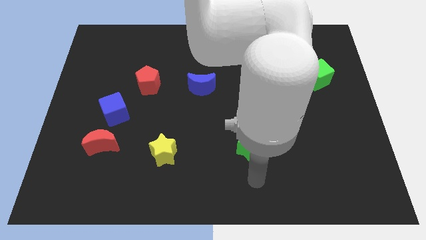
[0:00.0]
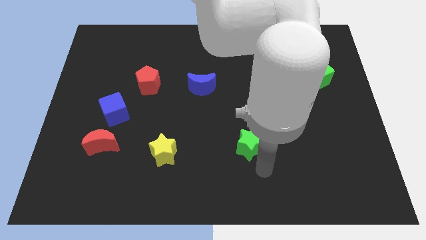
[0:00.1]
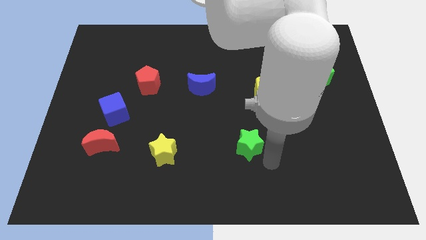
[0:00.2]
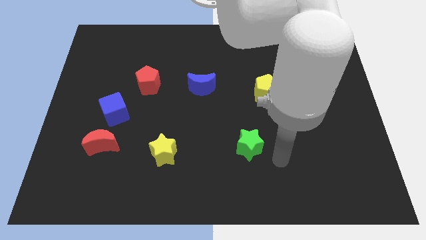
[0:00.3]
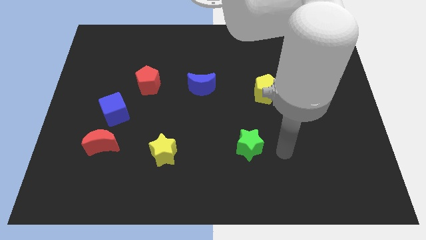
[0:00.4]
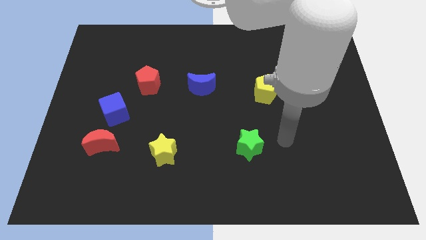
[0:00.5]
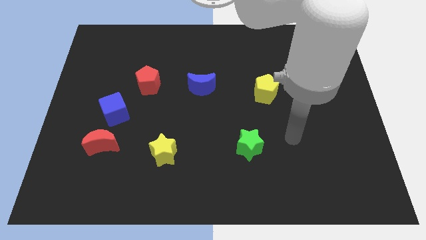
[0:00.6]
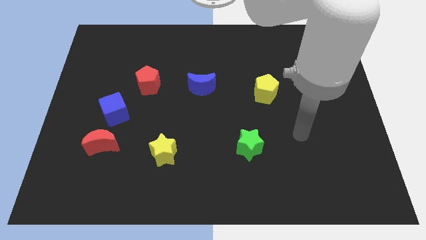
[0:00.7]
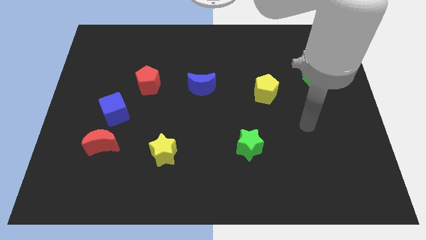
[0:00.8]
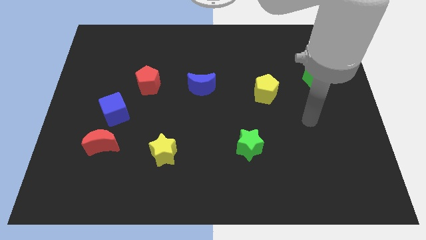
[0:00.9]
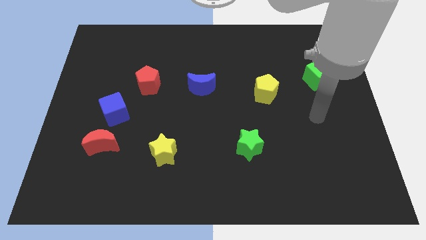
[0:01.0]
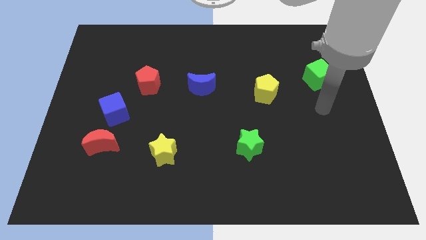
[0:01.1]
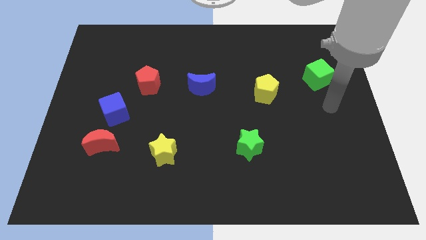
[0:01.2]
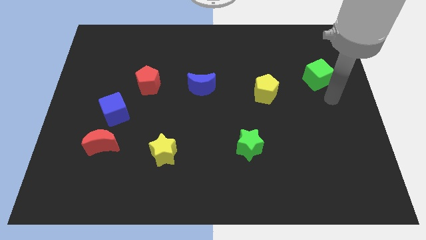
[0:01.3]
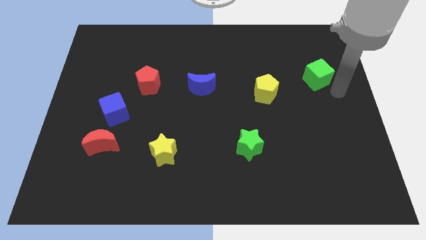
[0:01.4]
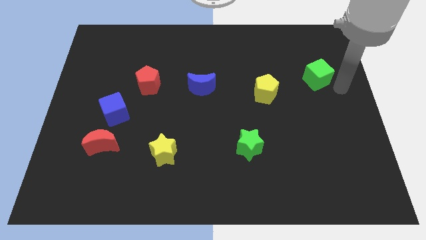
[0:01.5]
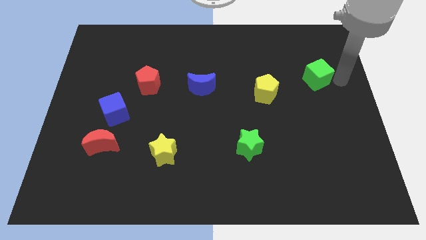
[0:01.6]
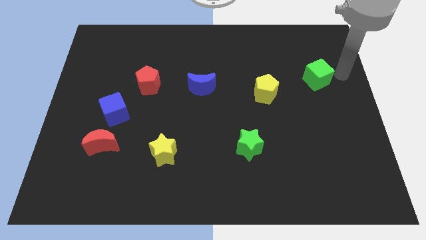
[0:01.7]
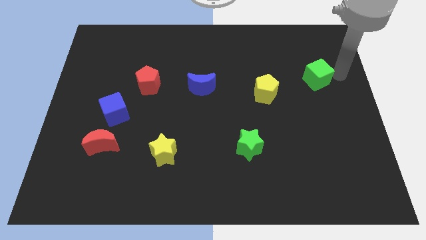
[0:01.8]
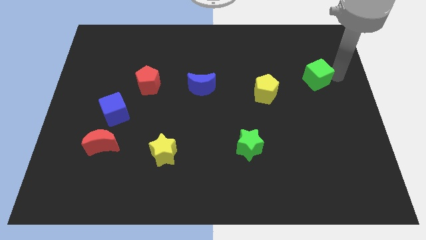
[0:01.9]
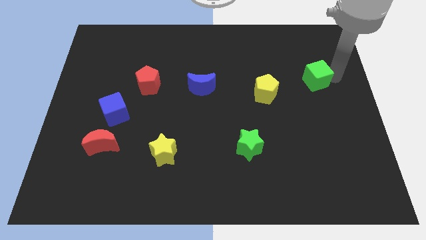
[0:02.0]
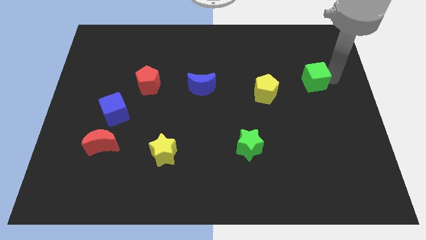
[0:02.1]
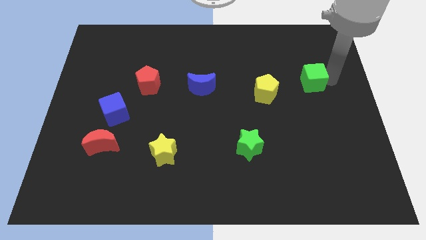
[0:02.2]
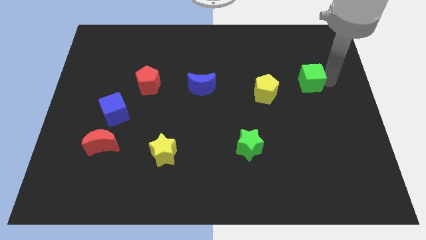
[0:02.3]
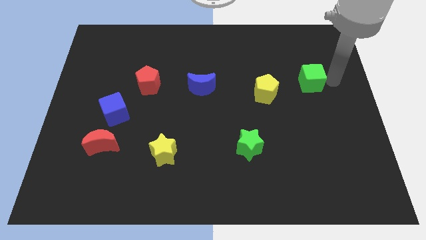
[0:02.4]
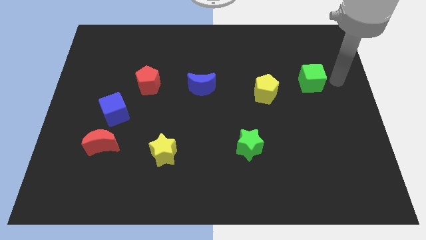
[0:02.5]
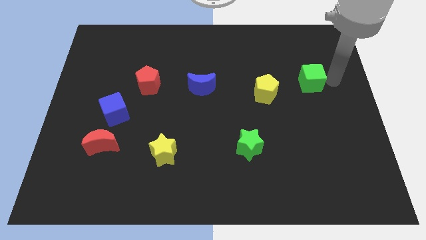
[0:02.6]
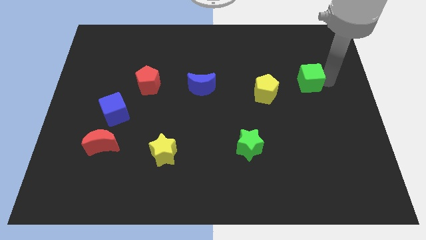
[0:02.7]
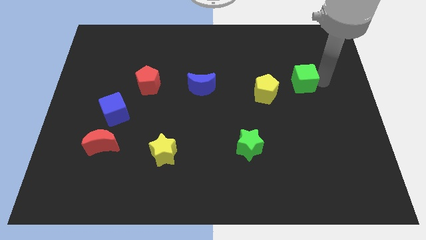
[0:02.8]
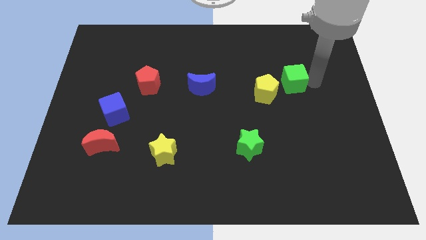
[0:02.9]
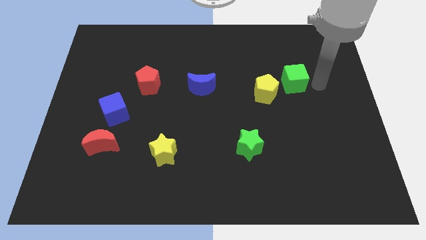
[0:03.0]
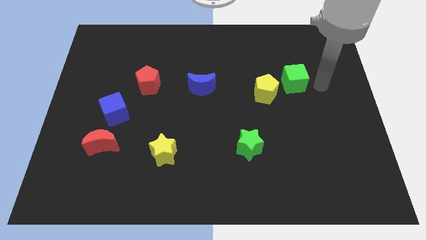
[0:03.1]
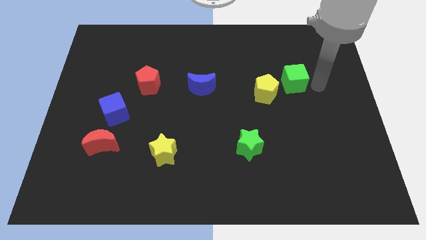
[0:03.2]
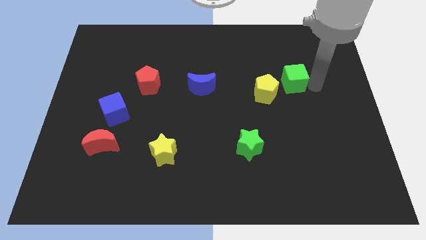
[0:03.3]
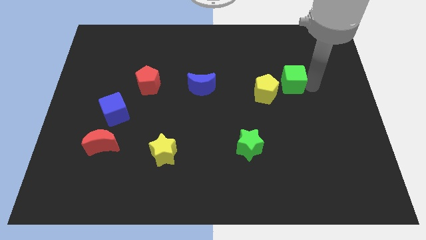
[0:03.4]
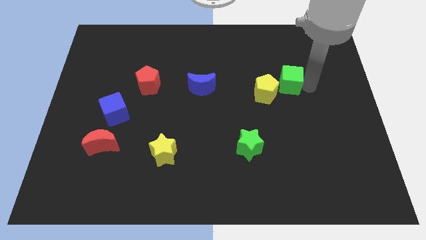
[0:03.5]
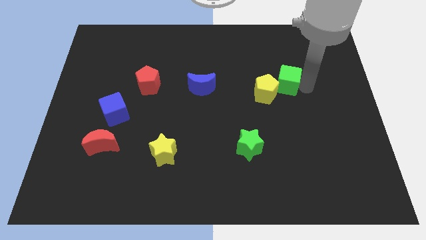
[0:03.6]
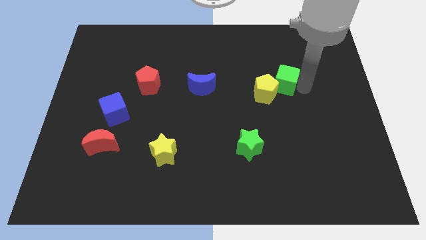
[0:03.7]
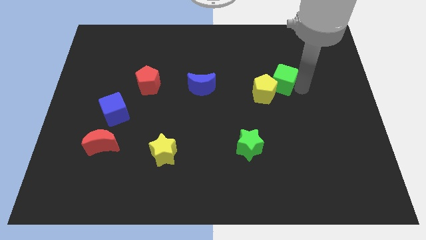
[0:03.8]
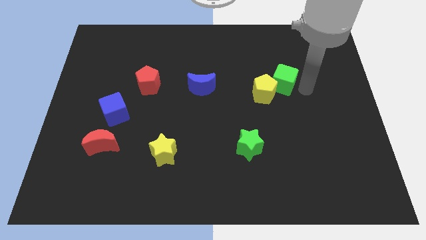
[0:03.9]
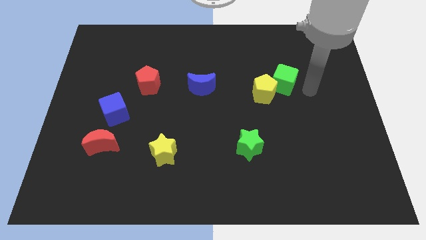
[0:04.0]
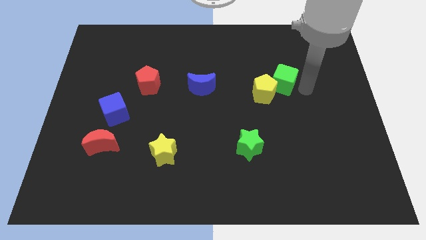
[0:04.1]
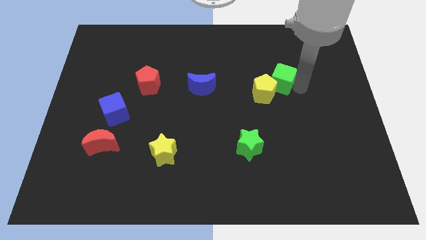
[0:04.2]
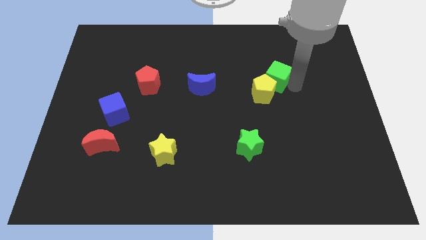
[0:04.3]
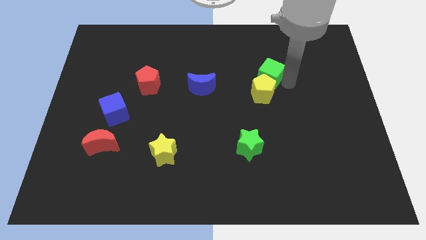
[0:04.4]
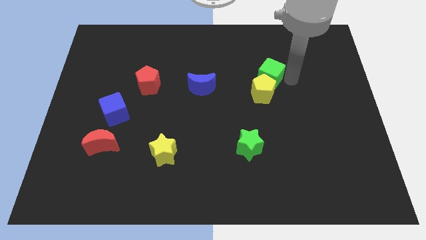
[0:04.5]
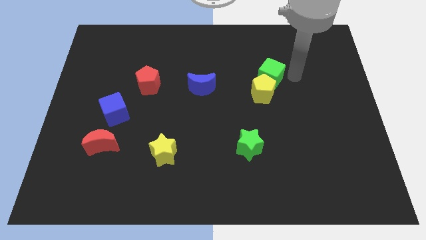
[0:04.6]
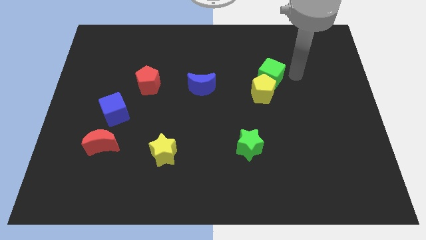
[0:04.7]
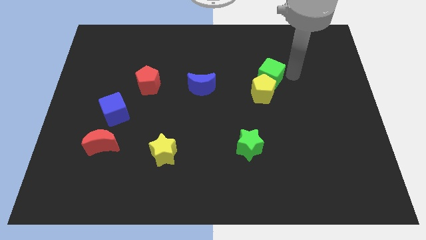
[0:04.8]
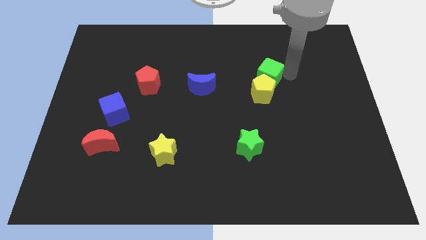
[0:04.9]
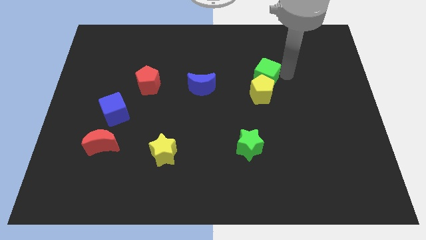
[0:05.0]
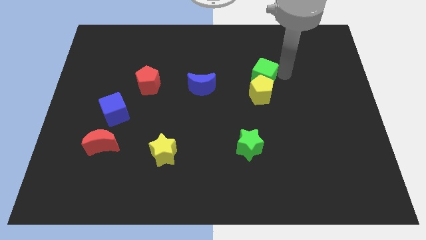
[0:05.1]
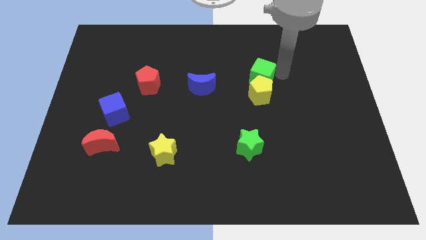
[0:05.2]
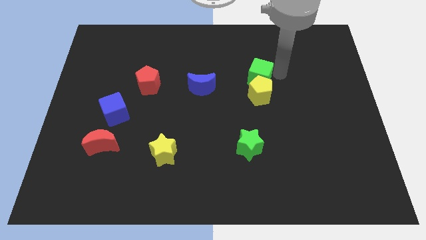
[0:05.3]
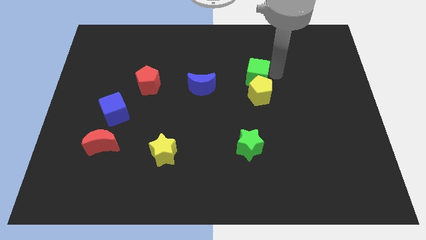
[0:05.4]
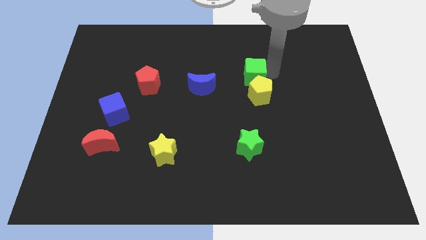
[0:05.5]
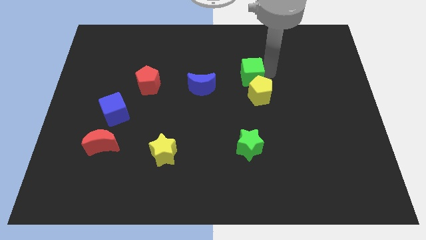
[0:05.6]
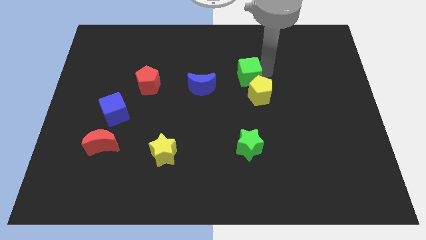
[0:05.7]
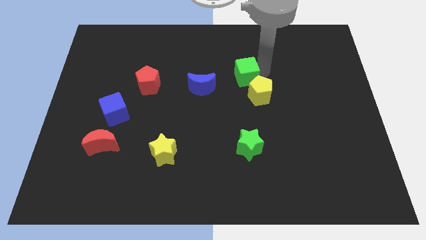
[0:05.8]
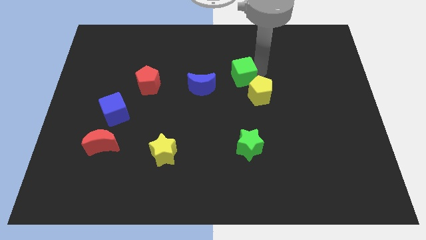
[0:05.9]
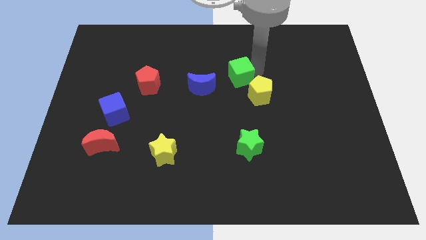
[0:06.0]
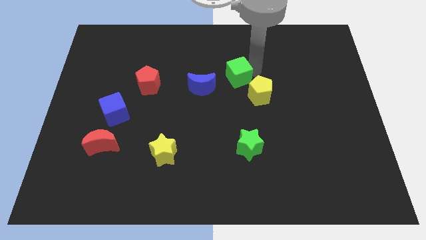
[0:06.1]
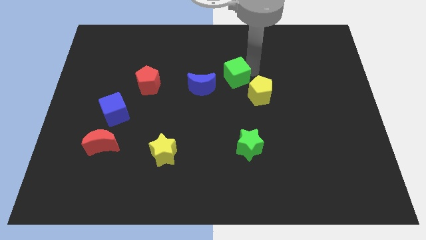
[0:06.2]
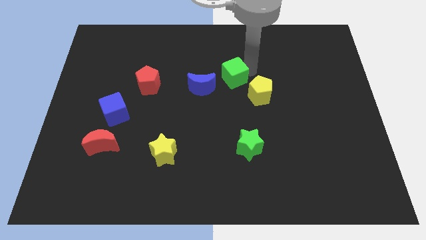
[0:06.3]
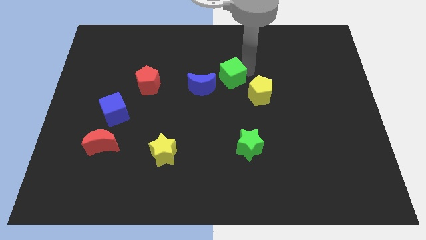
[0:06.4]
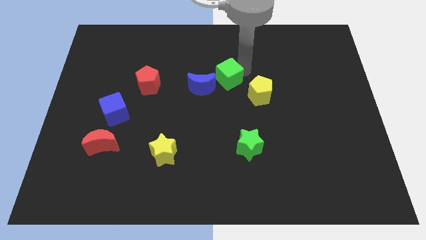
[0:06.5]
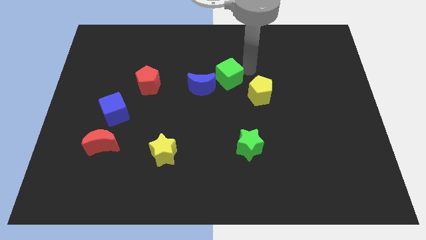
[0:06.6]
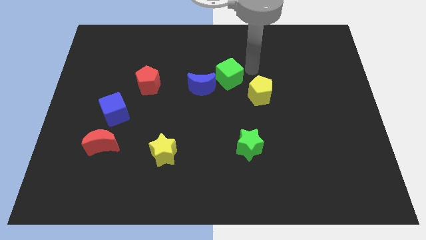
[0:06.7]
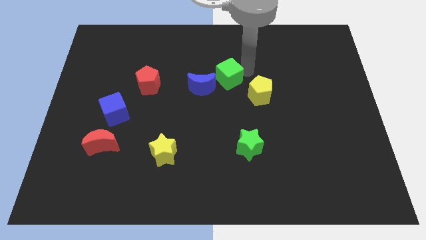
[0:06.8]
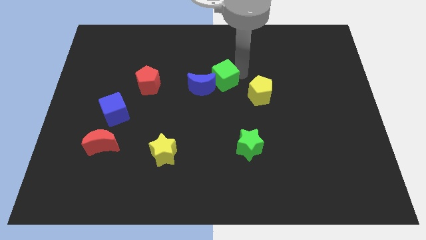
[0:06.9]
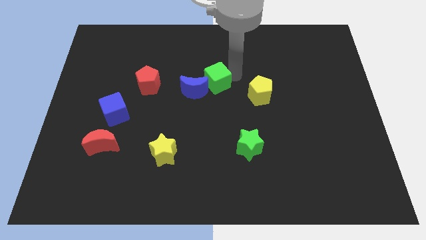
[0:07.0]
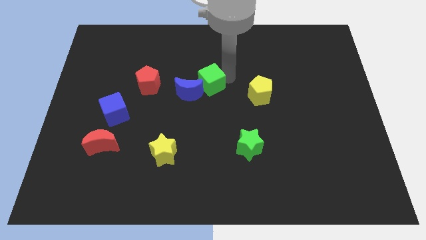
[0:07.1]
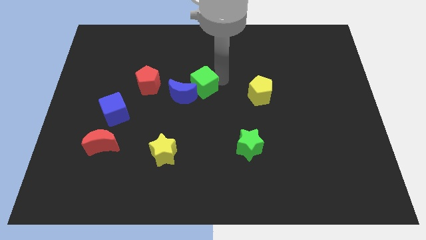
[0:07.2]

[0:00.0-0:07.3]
move the green cube close to the blue moon
